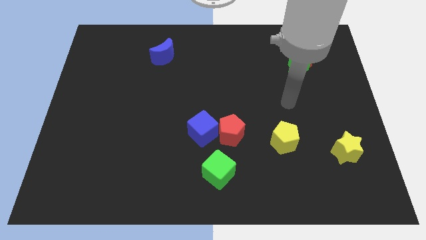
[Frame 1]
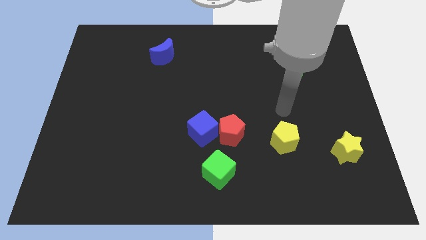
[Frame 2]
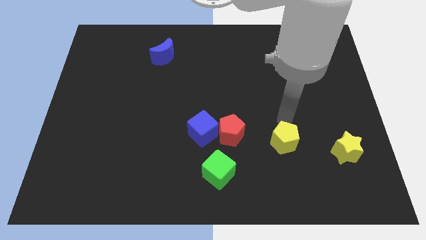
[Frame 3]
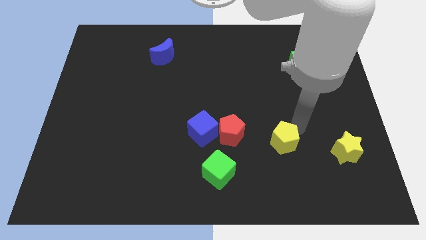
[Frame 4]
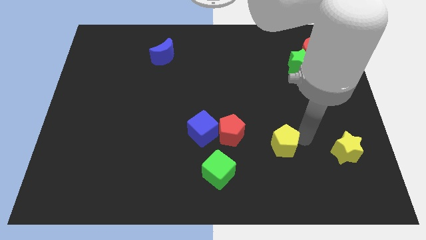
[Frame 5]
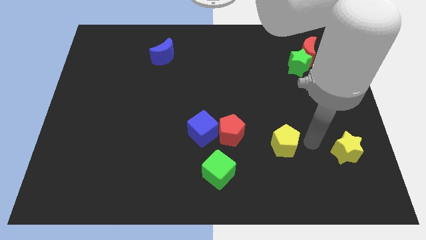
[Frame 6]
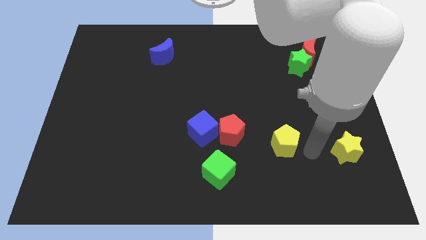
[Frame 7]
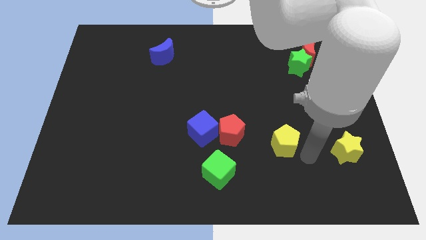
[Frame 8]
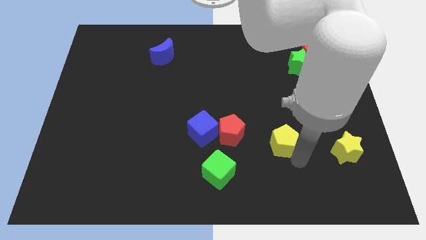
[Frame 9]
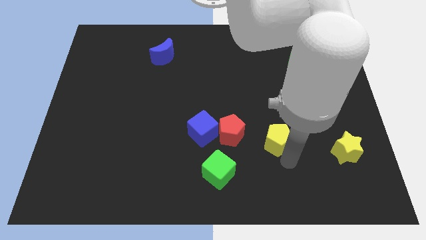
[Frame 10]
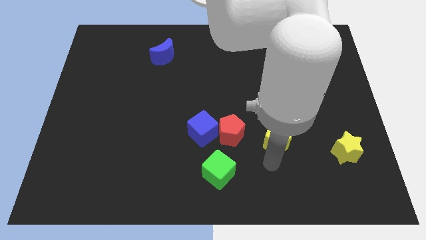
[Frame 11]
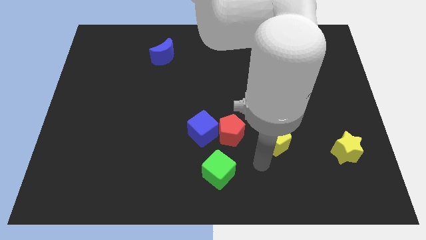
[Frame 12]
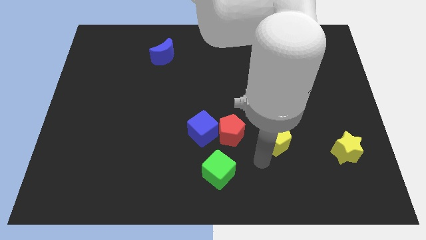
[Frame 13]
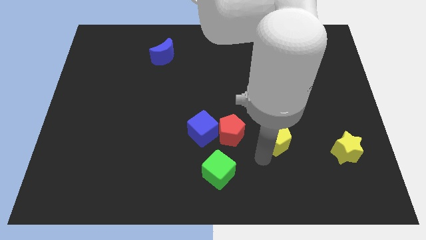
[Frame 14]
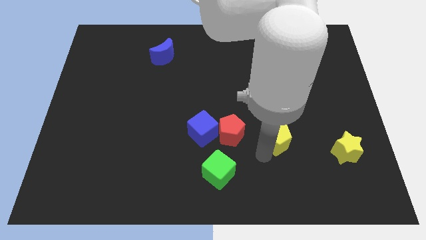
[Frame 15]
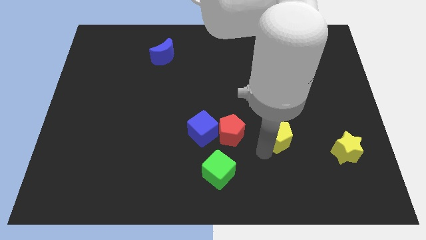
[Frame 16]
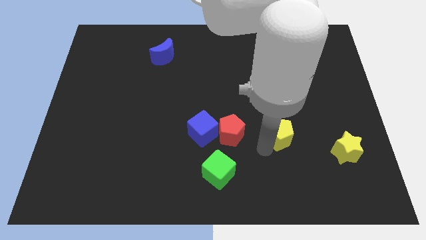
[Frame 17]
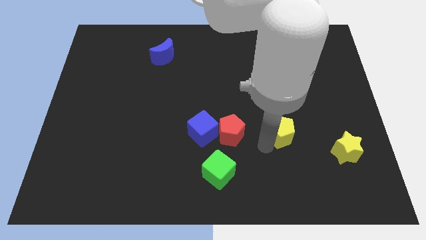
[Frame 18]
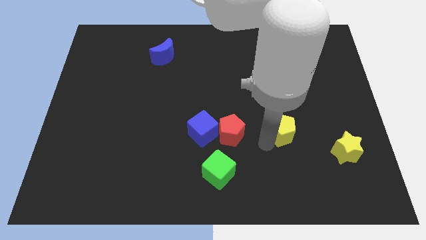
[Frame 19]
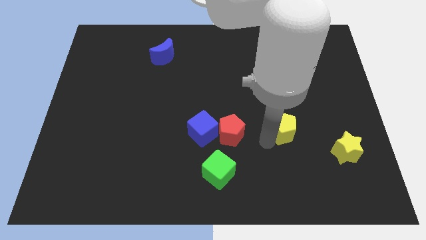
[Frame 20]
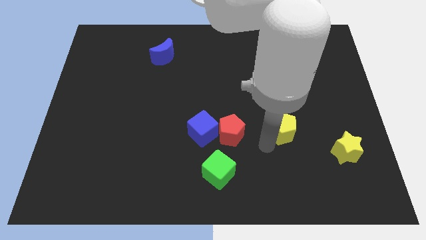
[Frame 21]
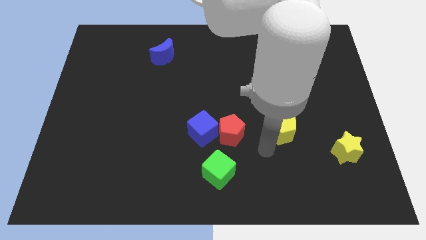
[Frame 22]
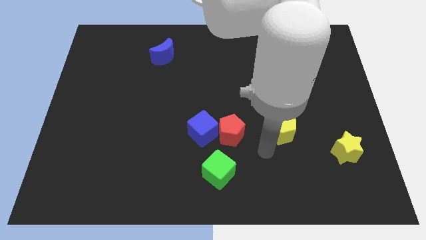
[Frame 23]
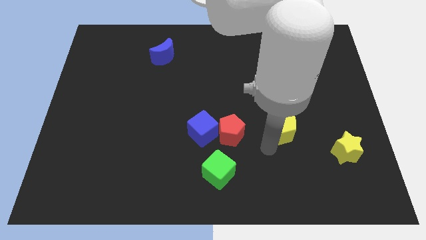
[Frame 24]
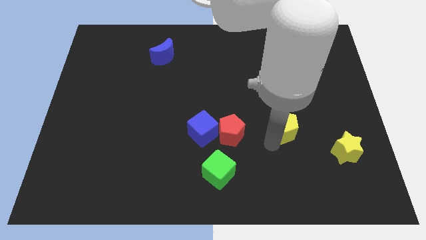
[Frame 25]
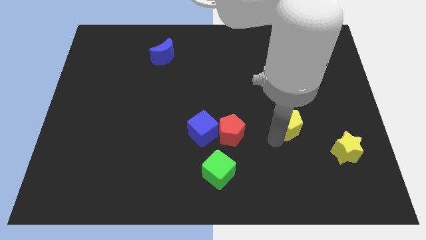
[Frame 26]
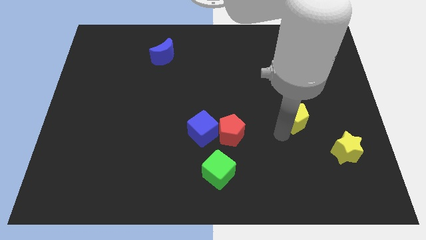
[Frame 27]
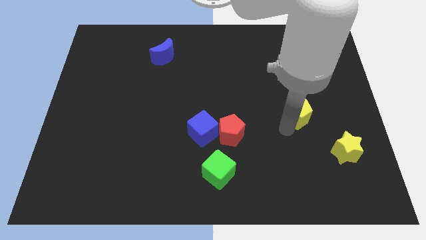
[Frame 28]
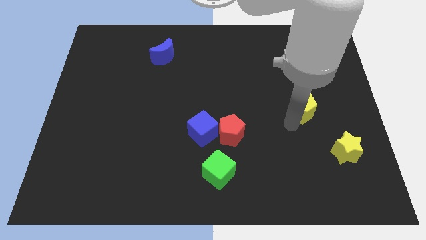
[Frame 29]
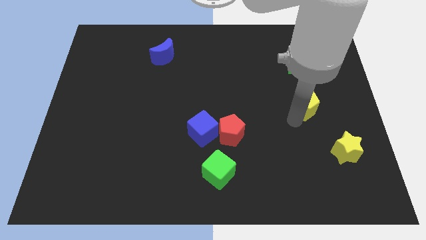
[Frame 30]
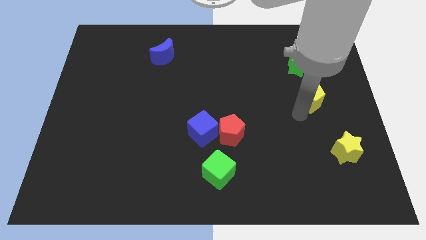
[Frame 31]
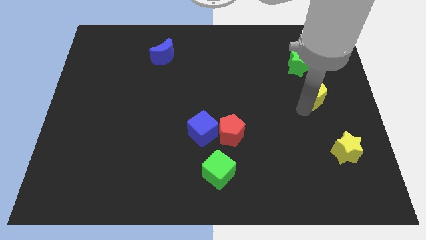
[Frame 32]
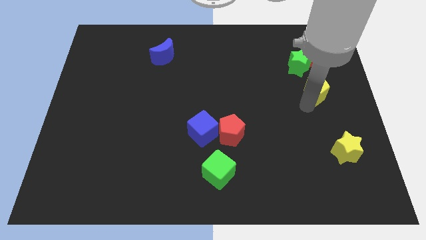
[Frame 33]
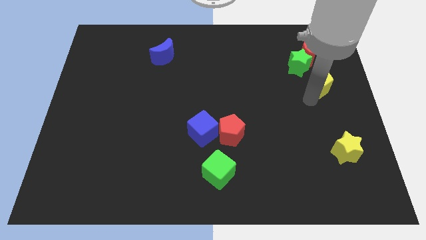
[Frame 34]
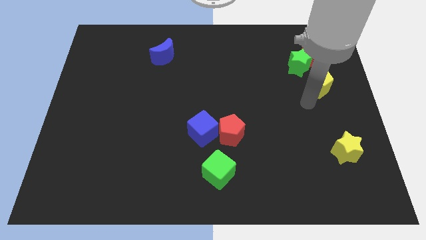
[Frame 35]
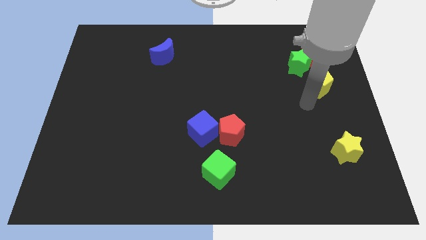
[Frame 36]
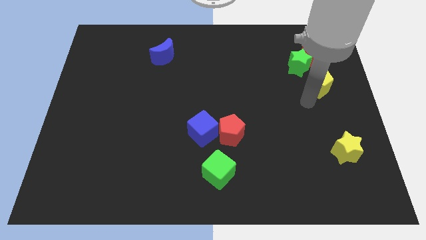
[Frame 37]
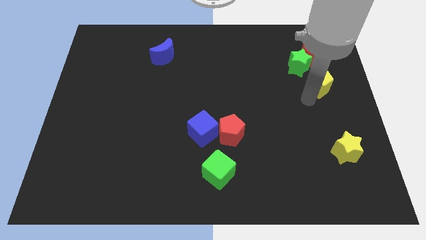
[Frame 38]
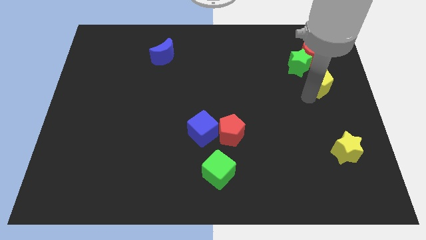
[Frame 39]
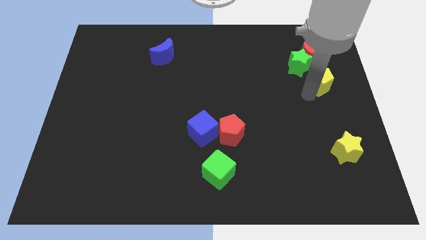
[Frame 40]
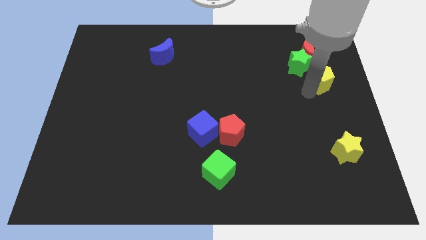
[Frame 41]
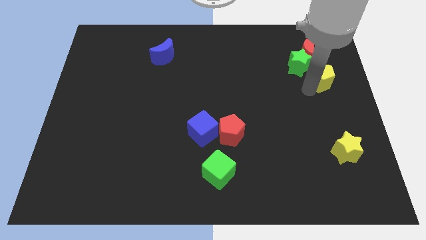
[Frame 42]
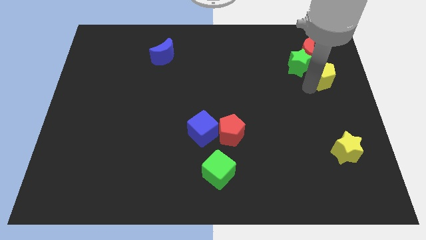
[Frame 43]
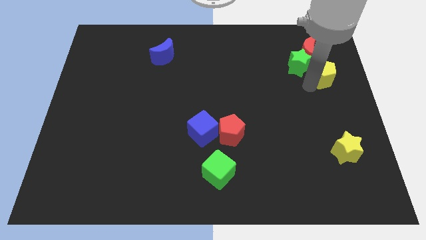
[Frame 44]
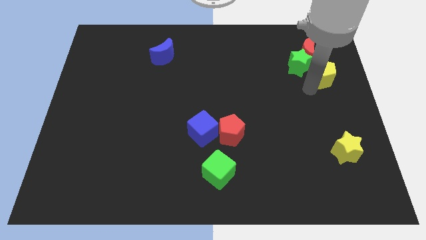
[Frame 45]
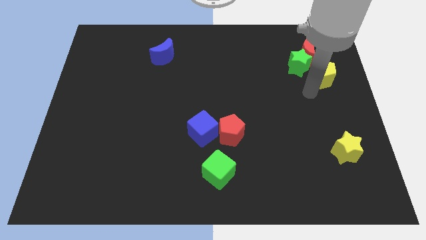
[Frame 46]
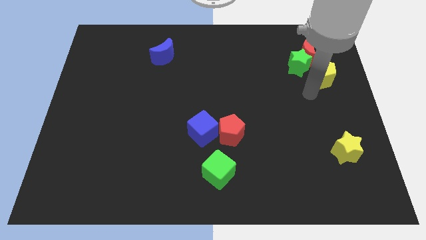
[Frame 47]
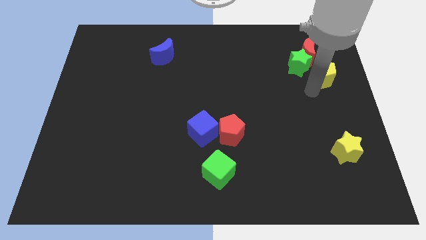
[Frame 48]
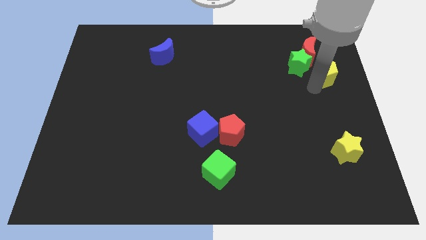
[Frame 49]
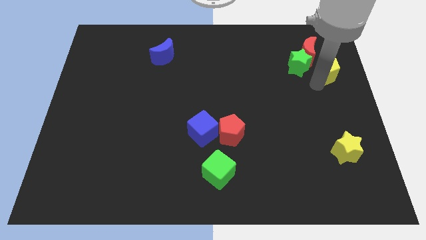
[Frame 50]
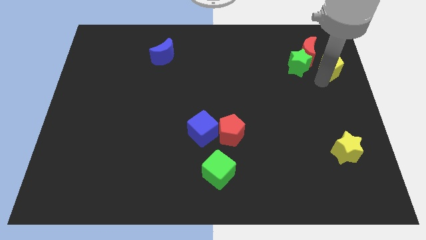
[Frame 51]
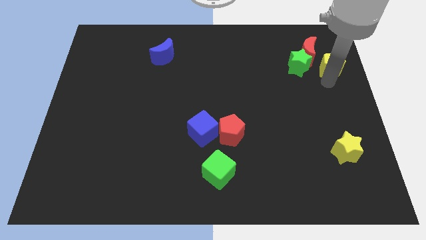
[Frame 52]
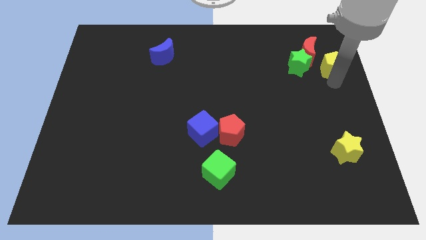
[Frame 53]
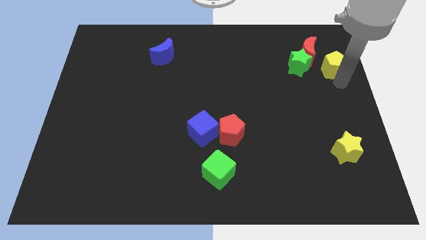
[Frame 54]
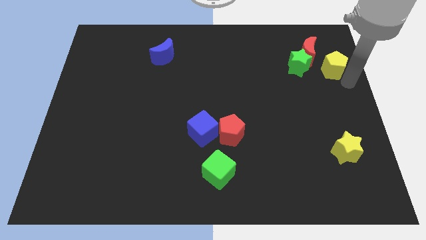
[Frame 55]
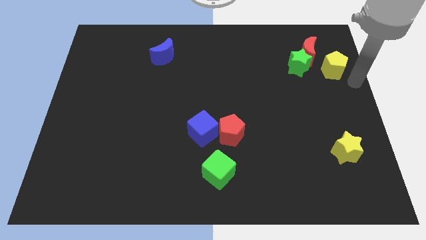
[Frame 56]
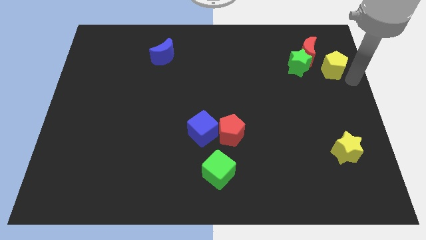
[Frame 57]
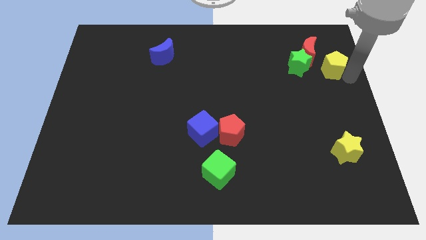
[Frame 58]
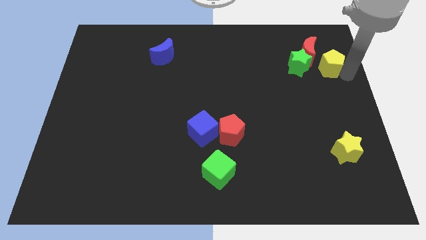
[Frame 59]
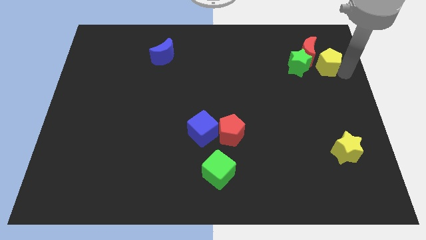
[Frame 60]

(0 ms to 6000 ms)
move the yellow pentagon close to the red moon

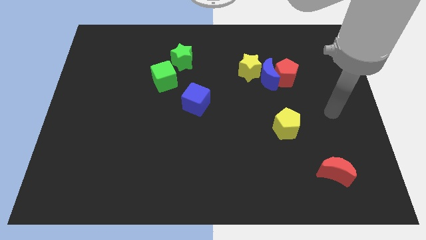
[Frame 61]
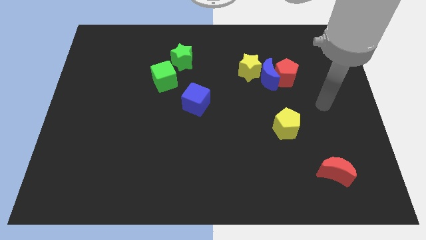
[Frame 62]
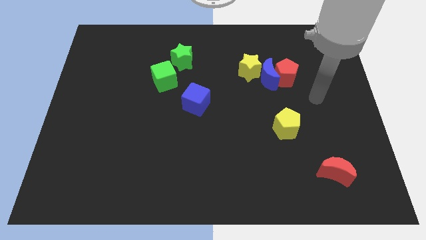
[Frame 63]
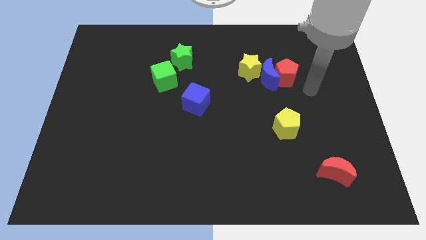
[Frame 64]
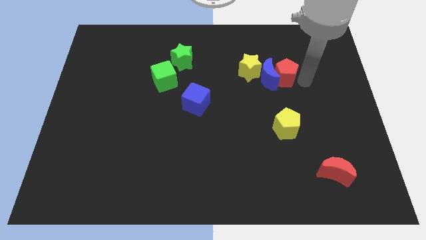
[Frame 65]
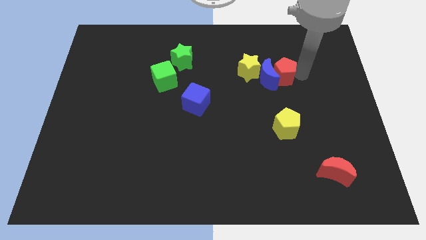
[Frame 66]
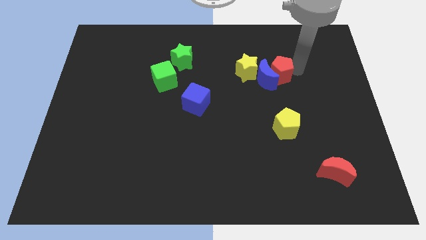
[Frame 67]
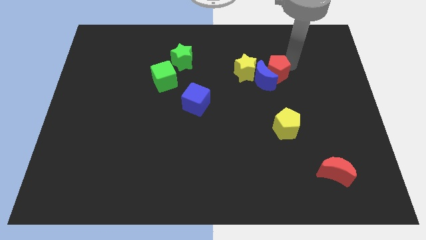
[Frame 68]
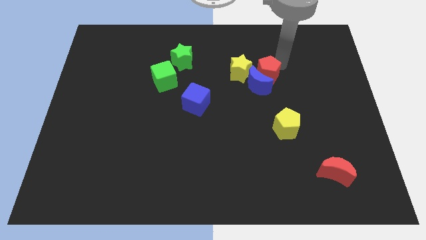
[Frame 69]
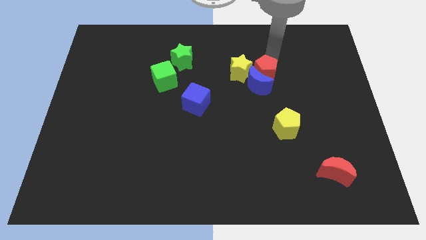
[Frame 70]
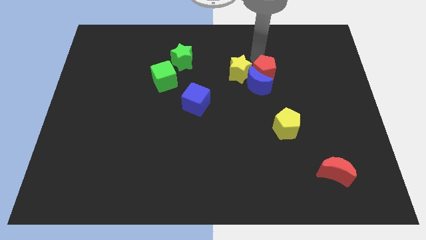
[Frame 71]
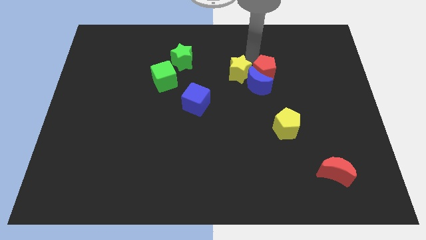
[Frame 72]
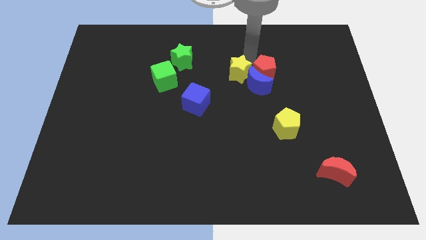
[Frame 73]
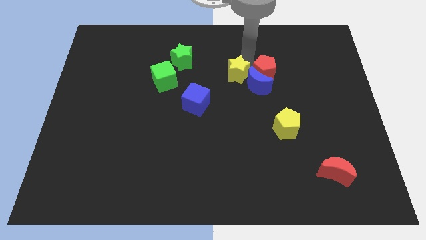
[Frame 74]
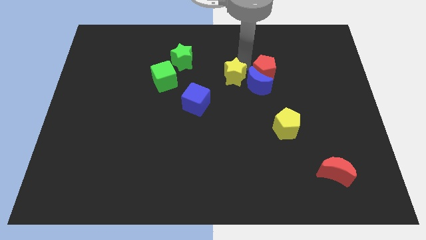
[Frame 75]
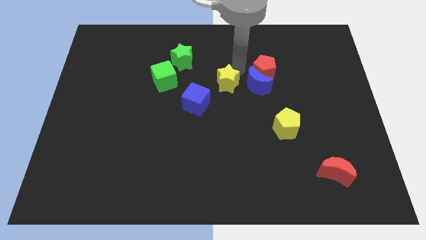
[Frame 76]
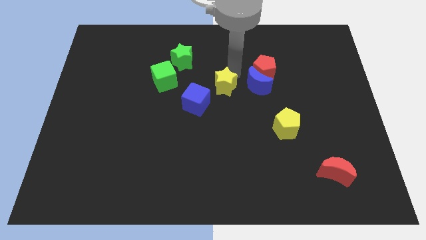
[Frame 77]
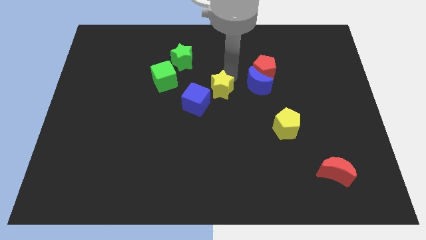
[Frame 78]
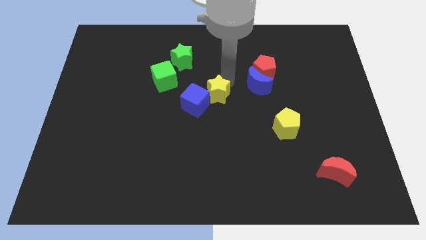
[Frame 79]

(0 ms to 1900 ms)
move the yellow star towards the blue cube
